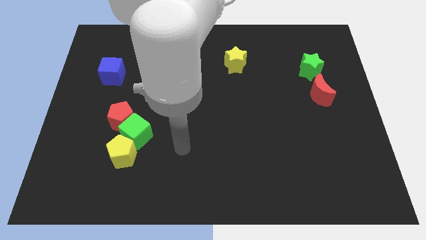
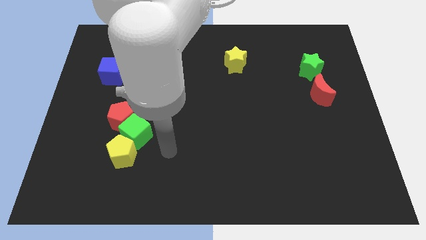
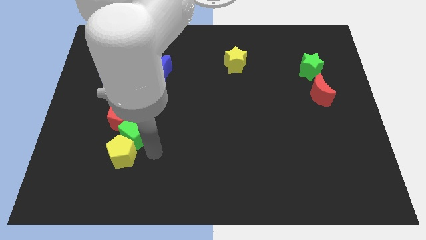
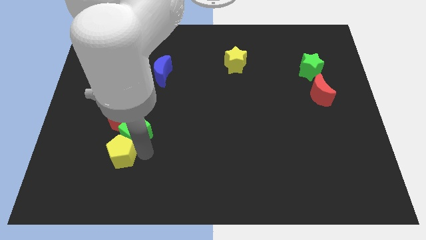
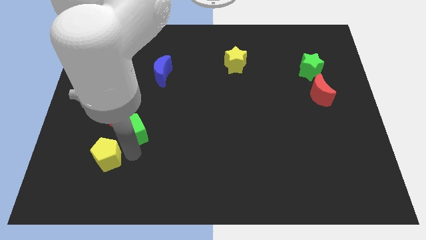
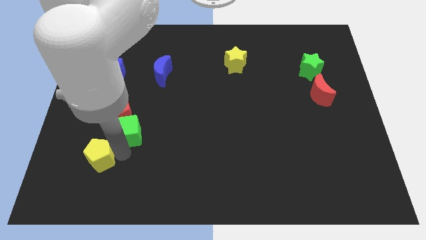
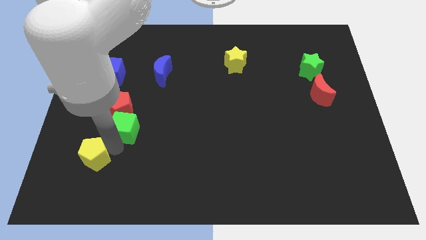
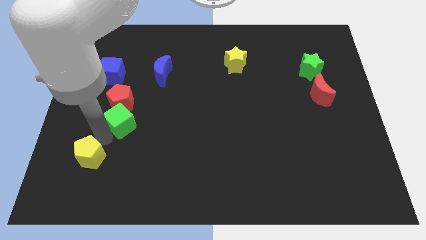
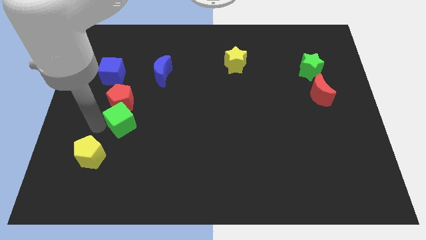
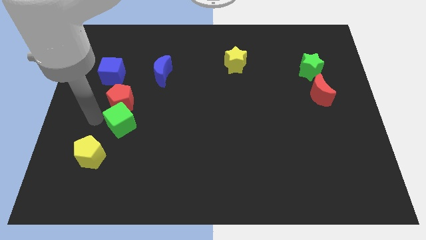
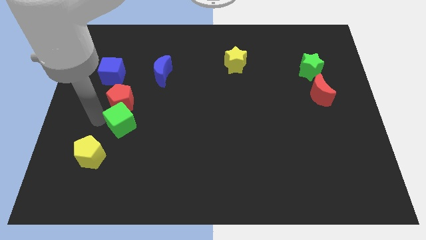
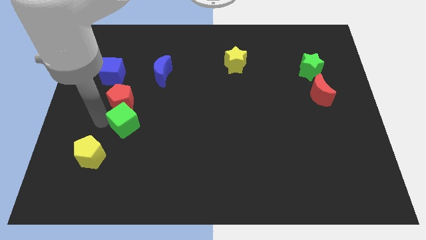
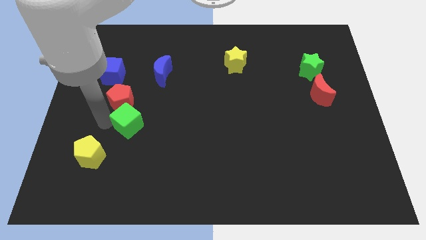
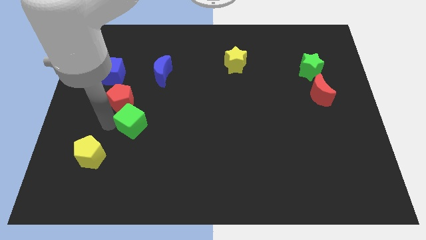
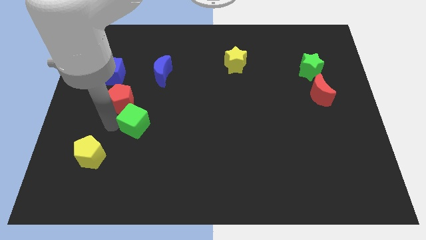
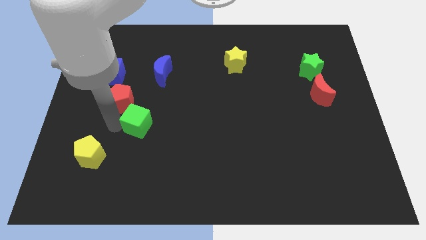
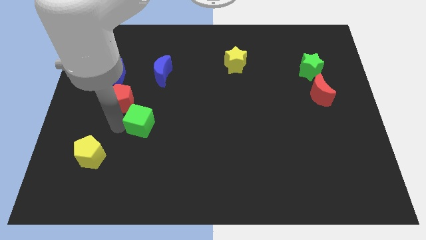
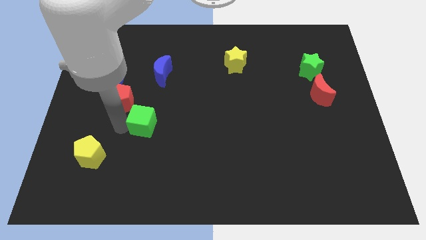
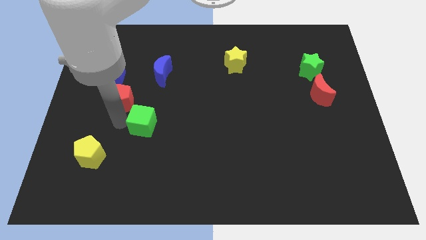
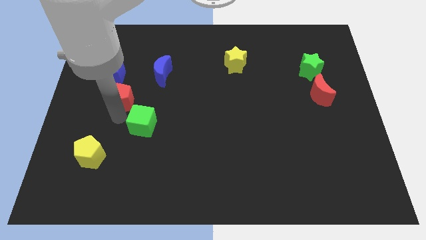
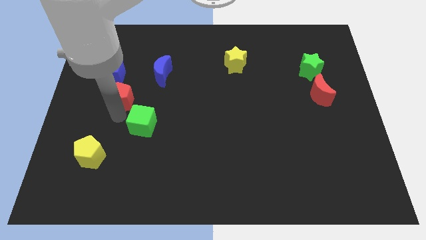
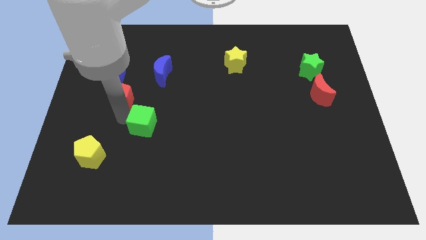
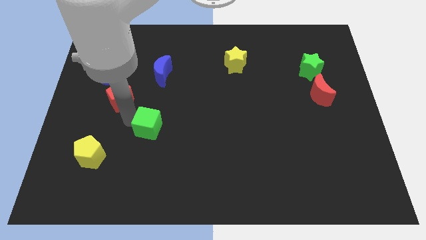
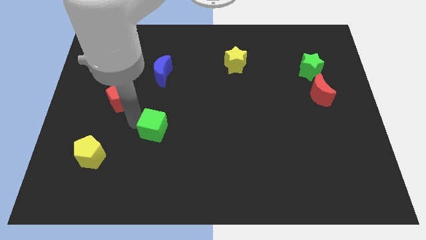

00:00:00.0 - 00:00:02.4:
separate the green cube from the red pentagon and yellow pentagon

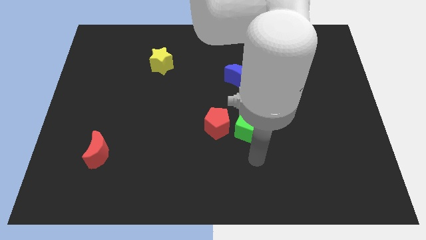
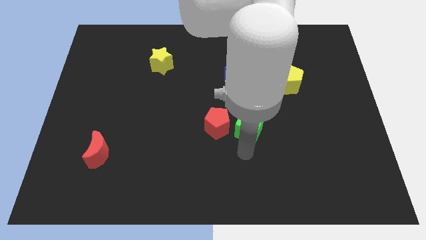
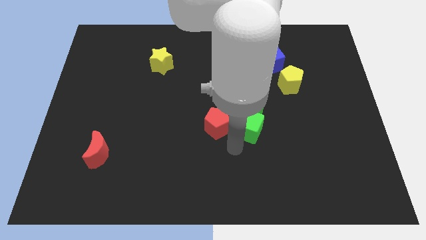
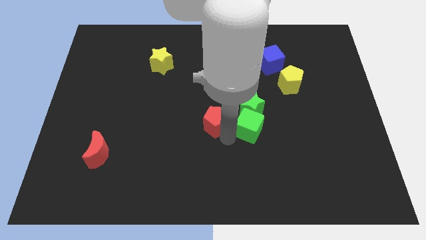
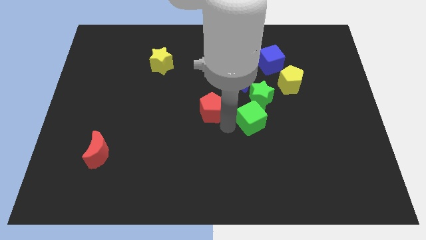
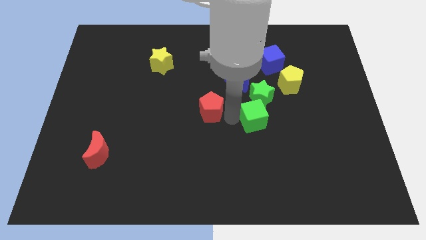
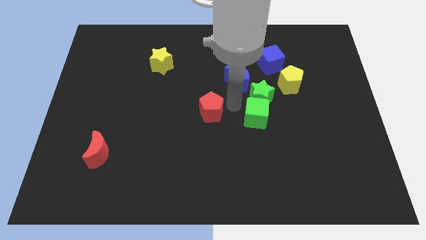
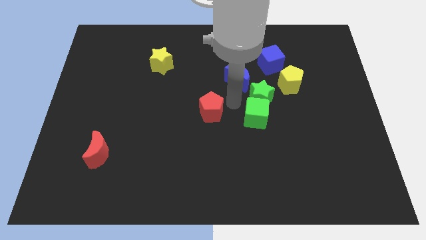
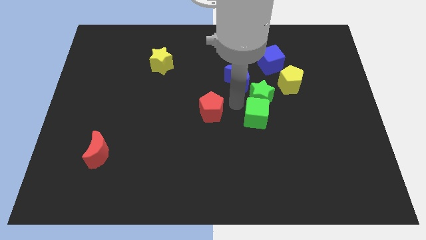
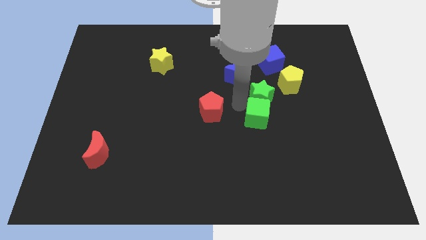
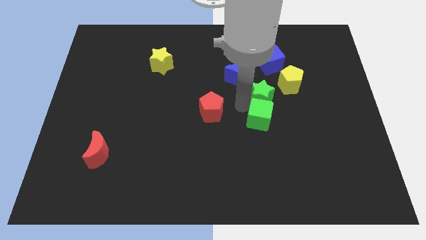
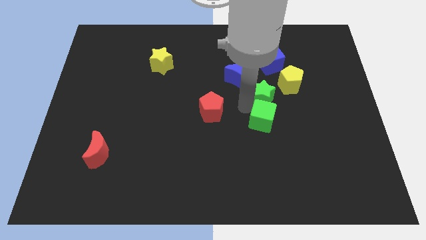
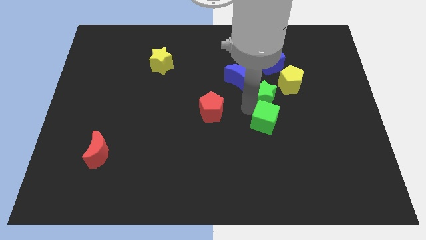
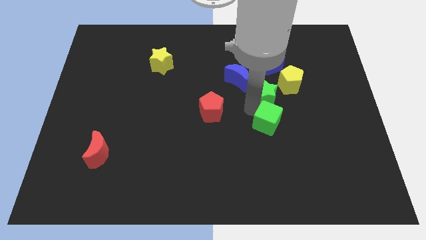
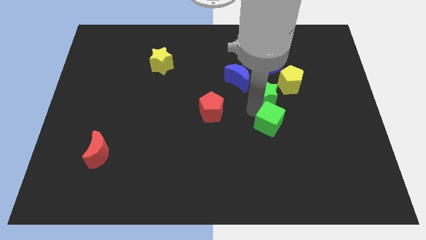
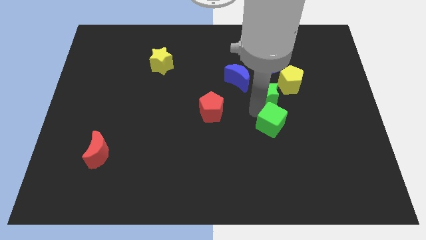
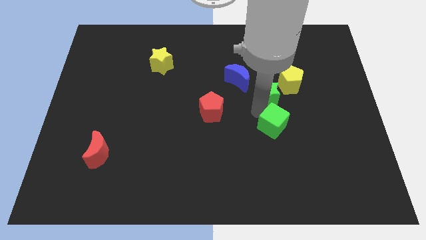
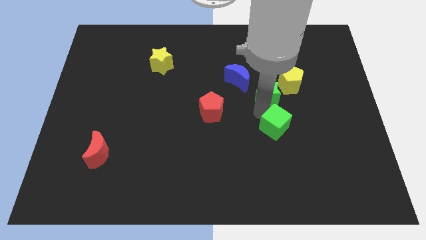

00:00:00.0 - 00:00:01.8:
move the green cube away from the green star and red pentagon

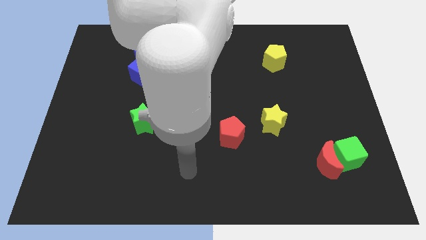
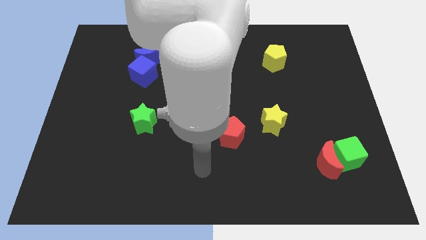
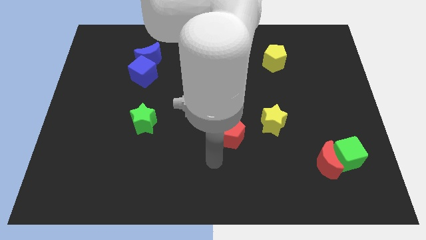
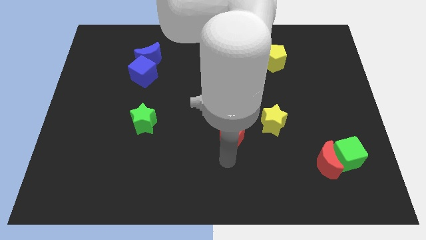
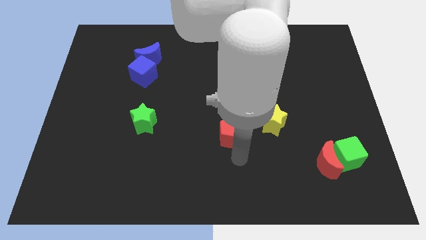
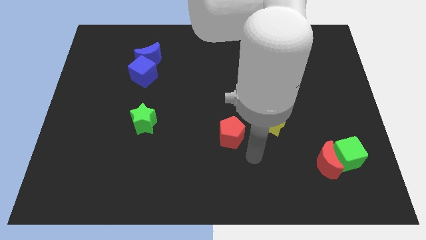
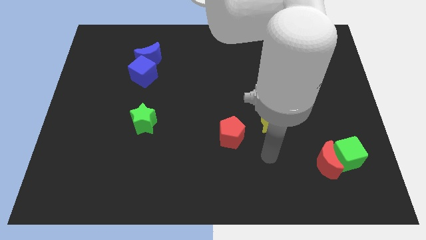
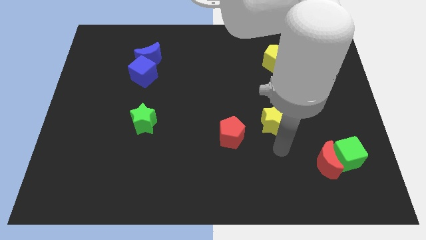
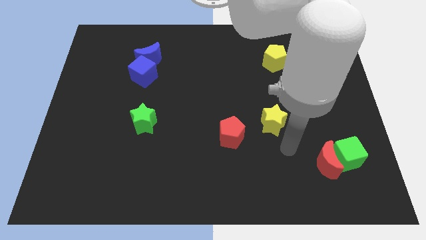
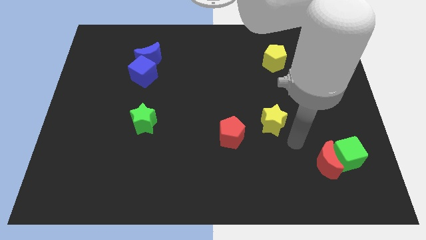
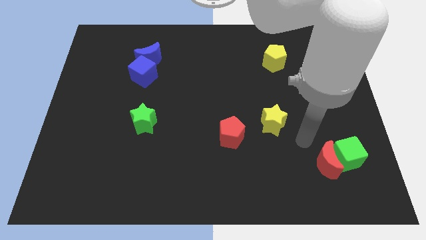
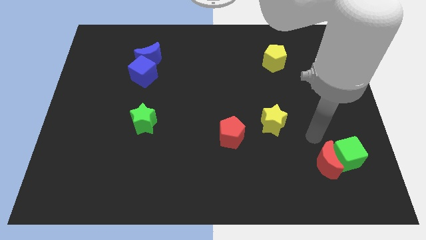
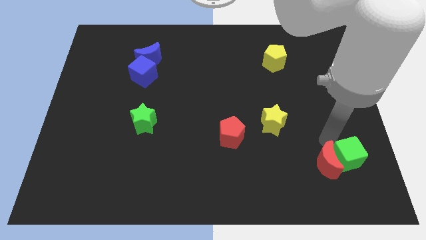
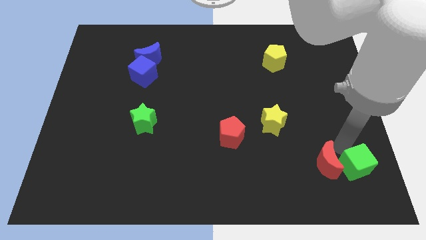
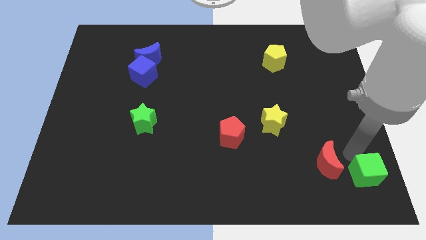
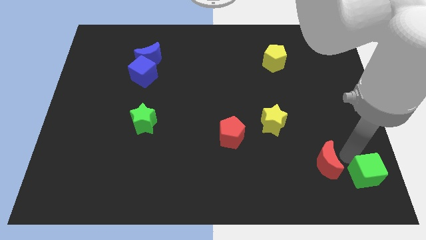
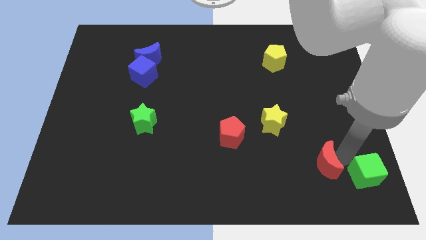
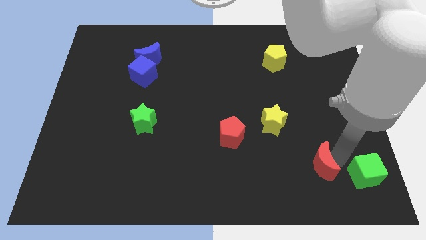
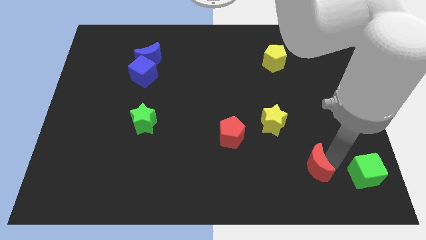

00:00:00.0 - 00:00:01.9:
move the red moon away from the green cube

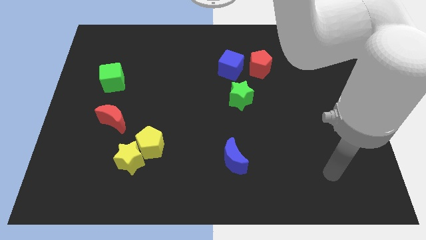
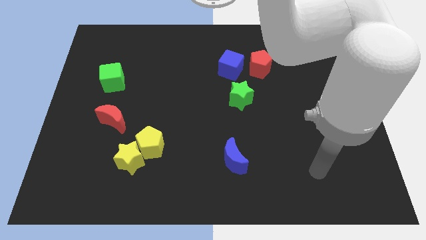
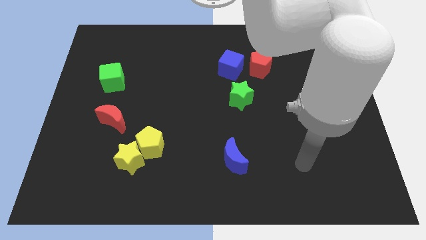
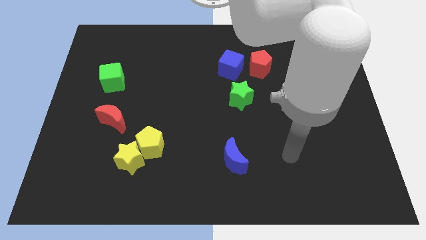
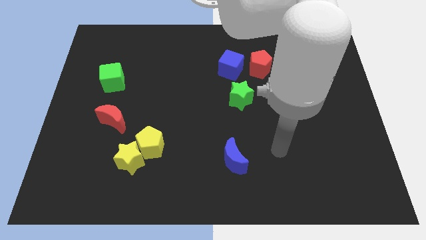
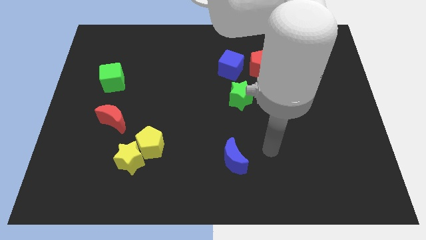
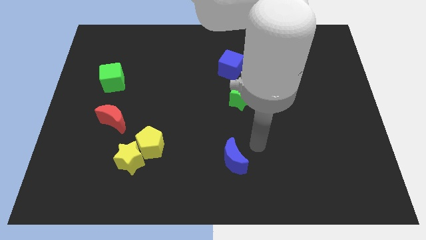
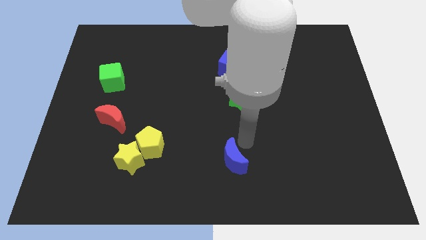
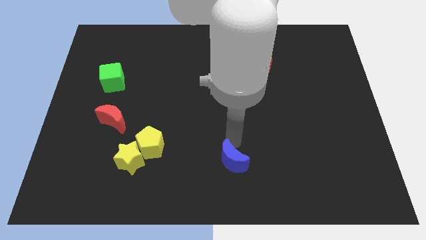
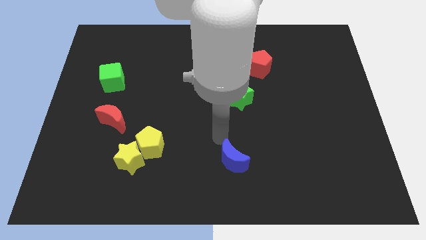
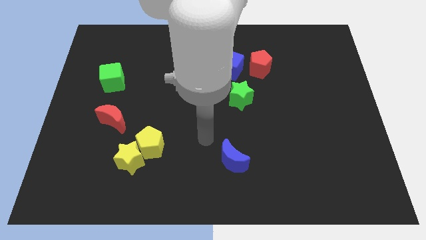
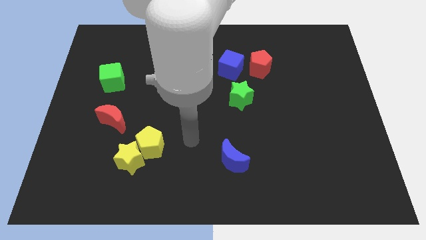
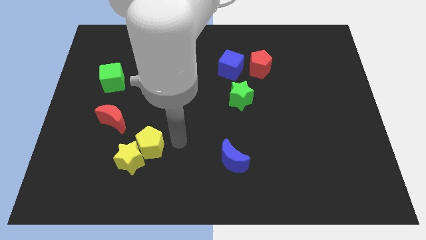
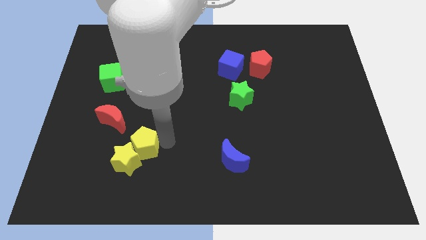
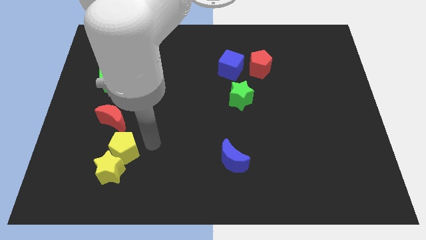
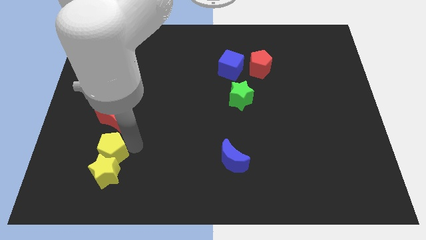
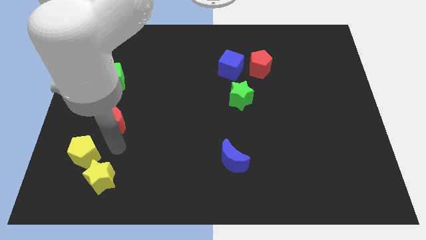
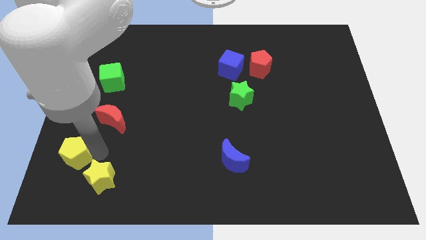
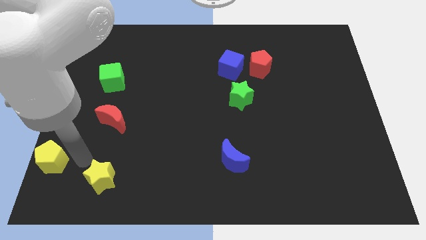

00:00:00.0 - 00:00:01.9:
move the yellow star away from the yellow pentagon

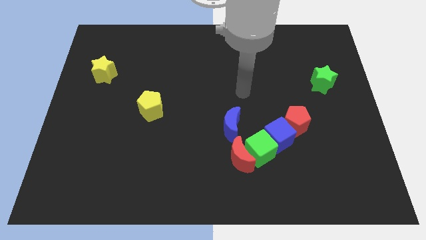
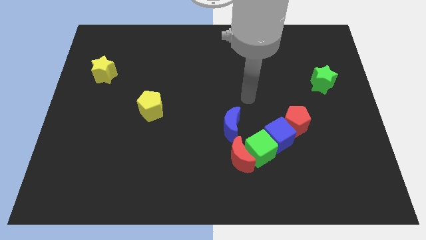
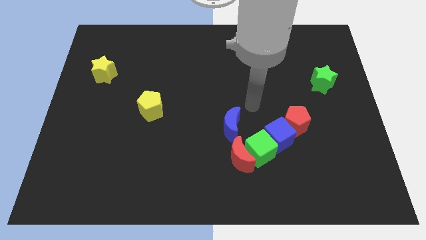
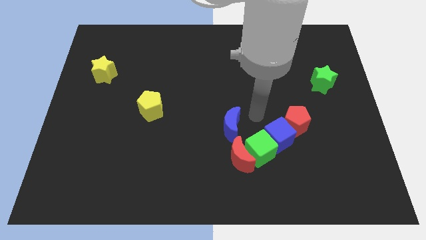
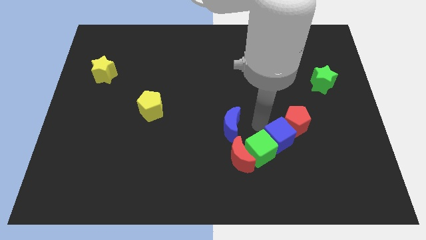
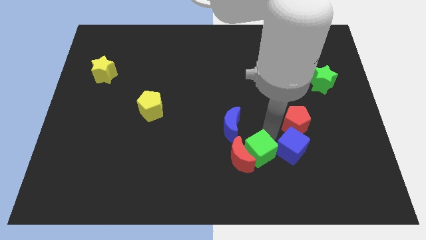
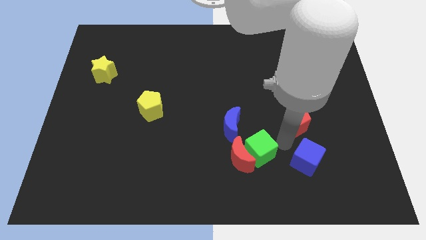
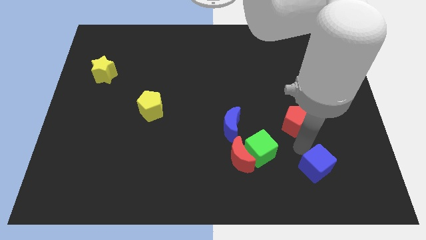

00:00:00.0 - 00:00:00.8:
move the red pentagon away from the blue cube

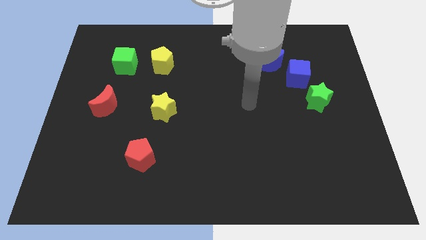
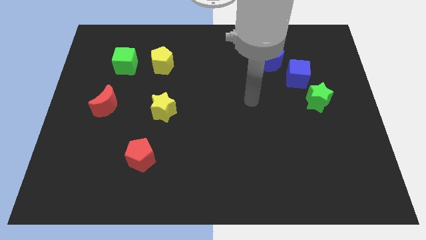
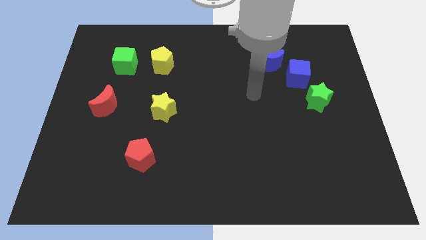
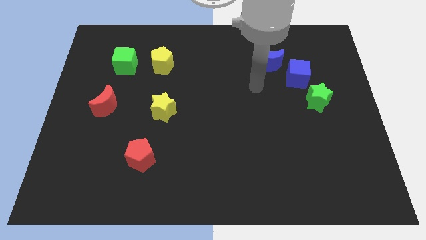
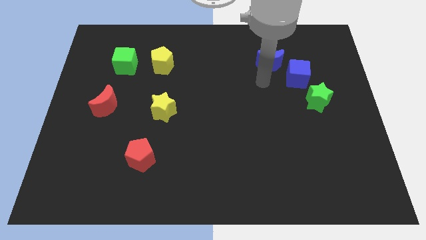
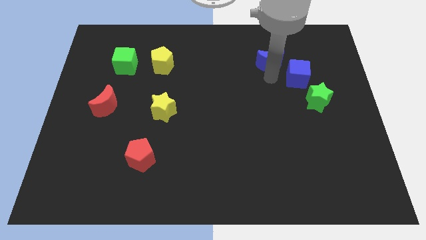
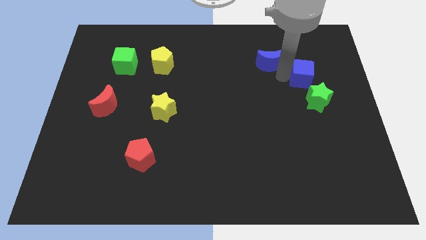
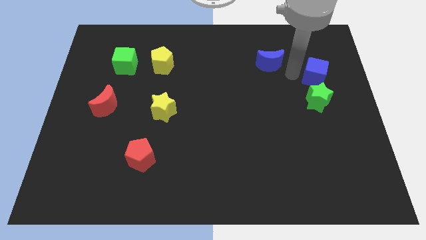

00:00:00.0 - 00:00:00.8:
separate the blue moon from the blue cube
